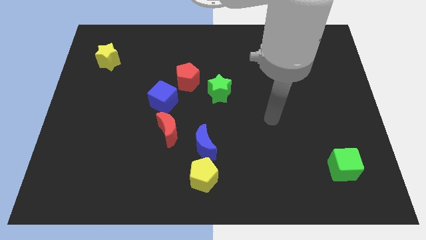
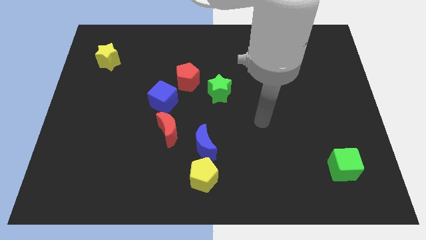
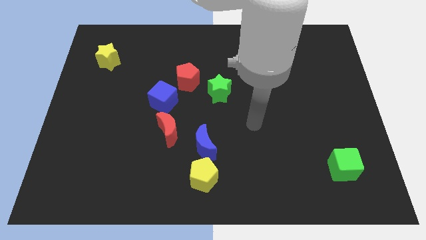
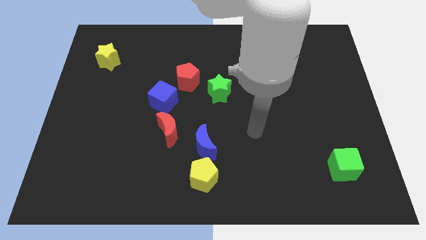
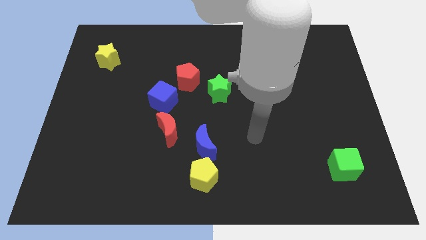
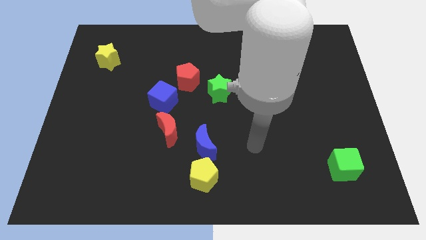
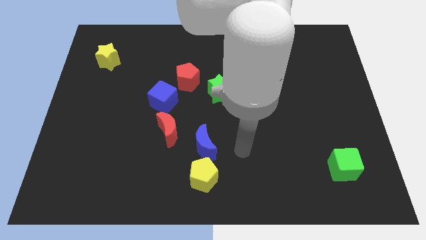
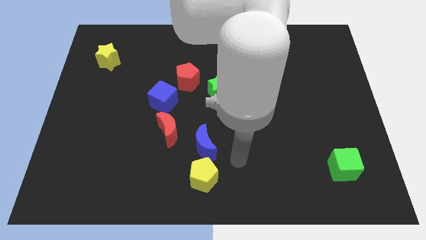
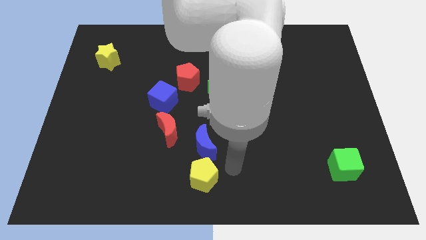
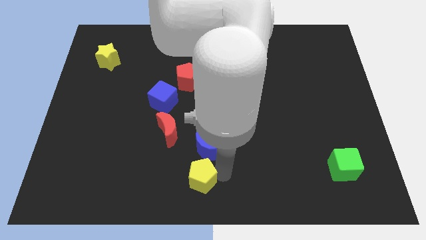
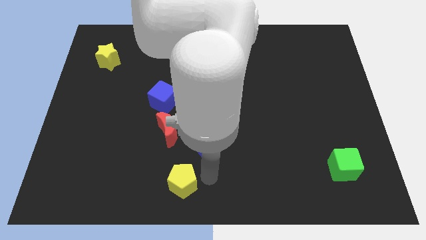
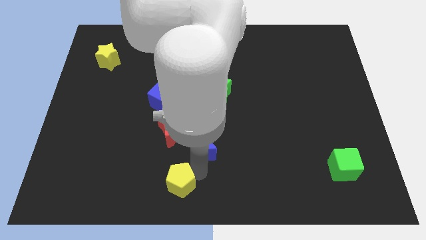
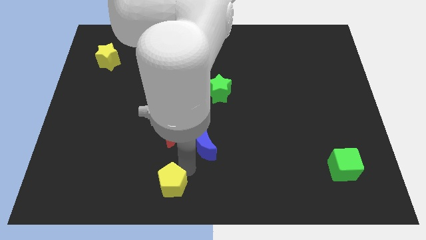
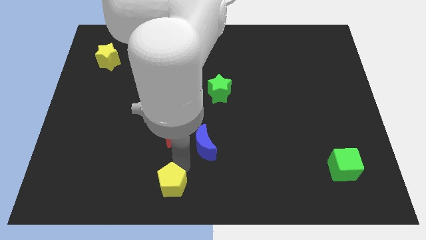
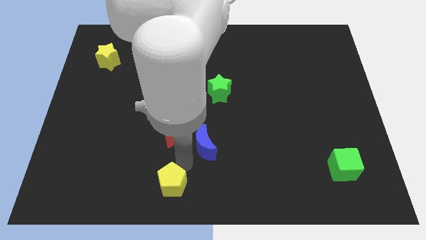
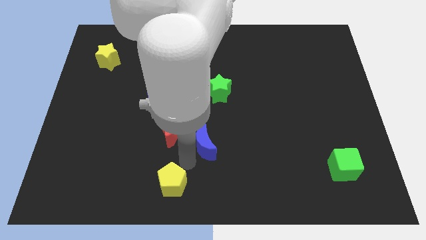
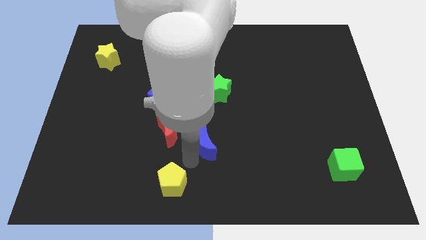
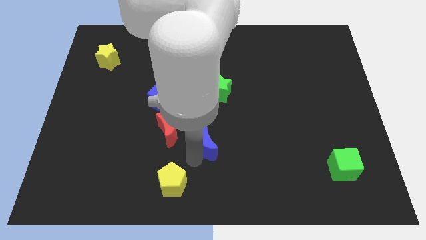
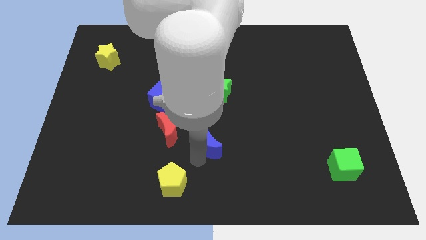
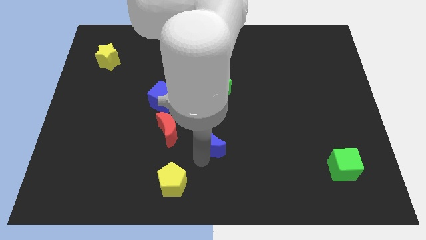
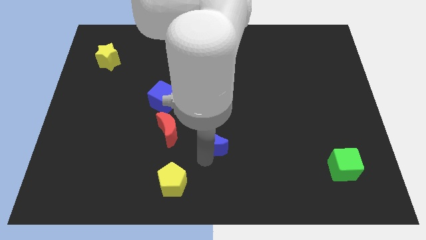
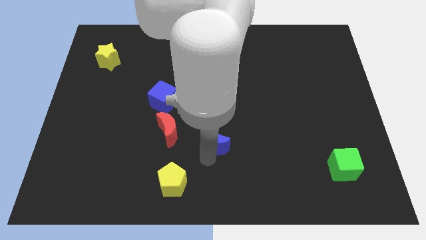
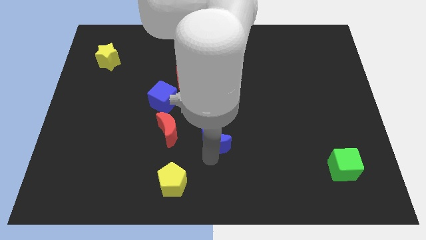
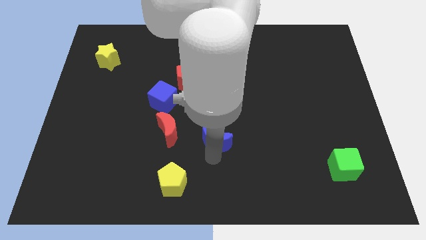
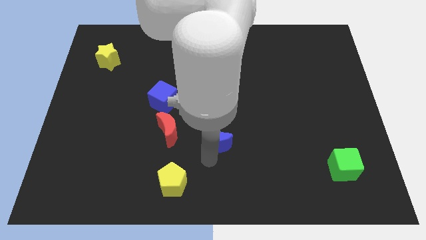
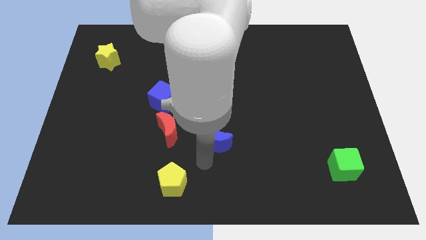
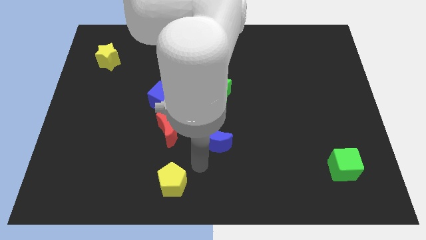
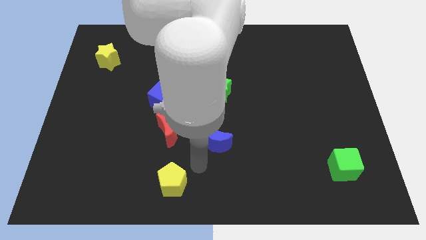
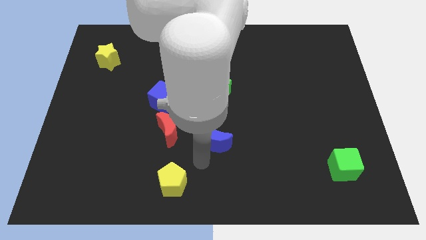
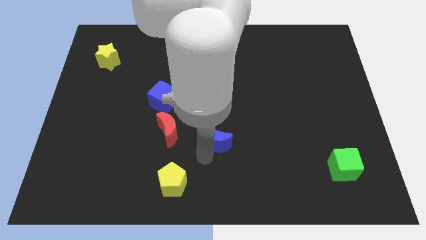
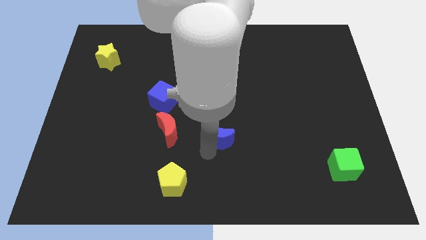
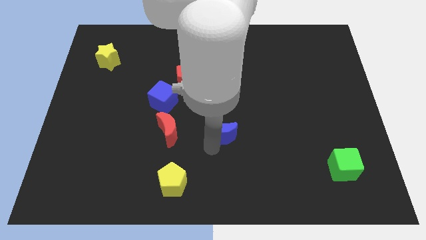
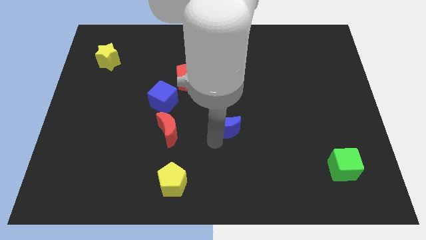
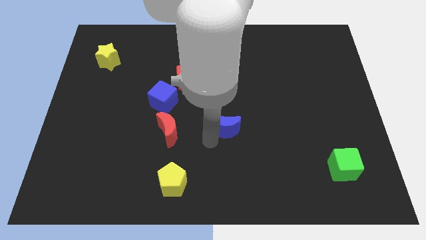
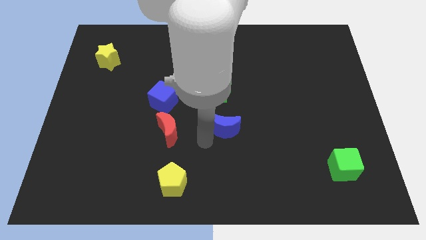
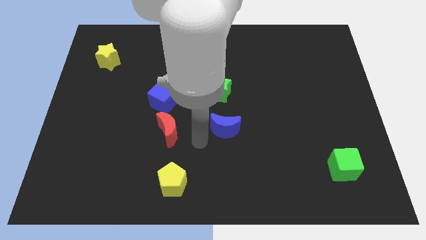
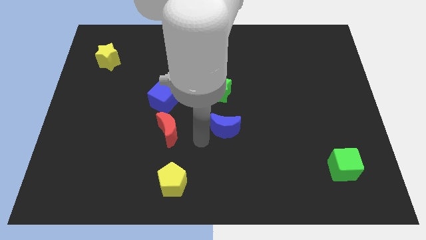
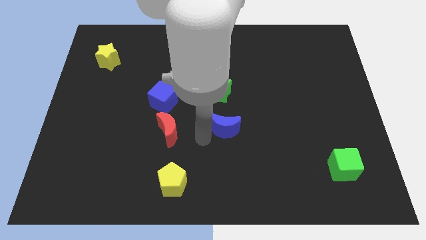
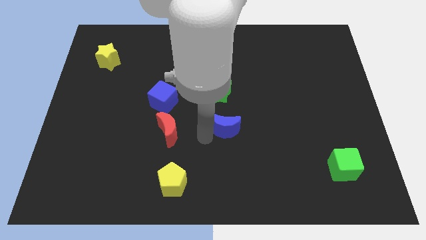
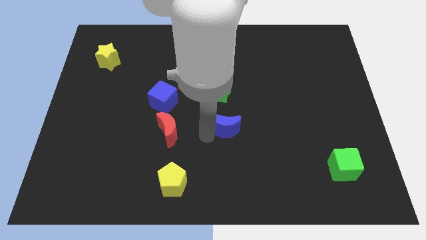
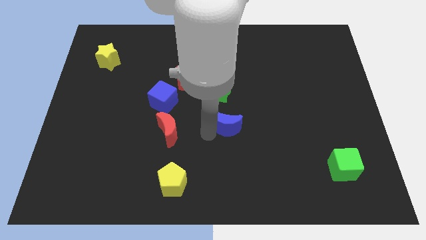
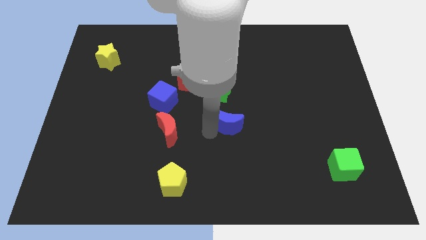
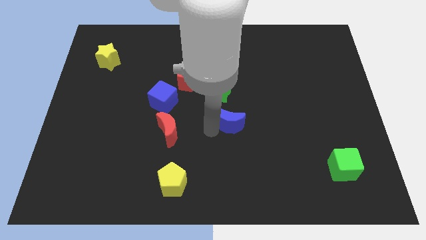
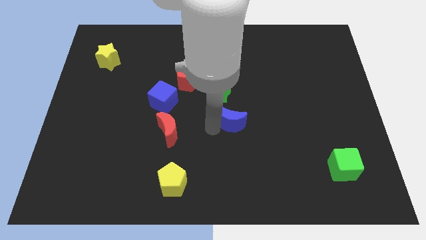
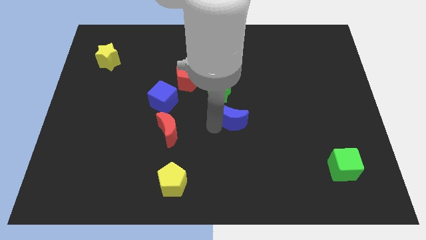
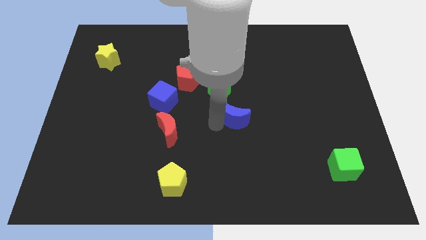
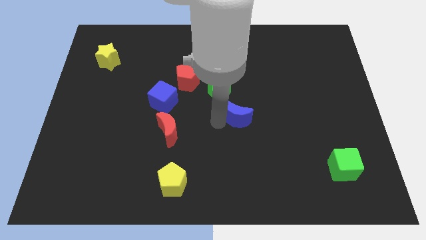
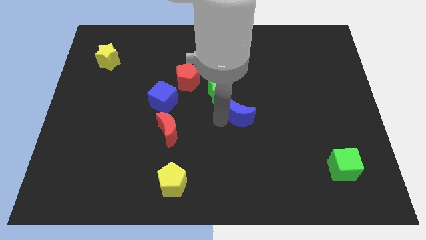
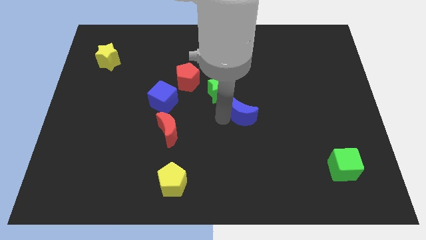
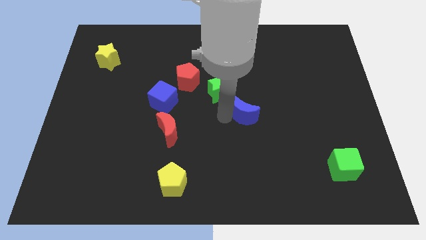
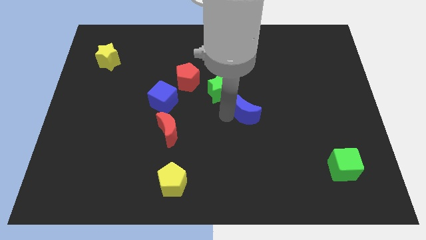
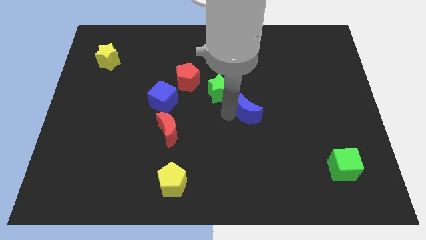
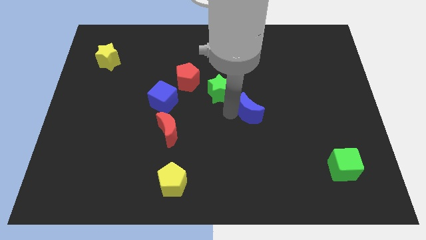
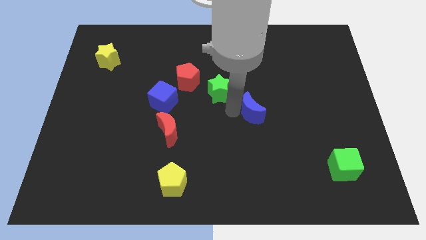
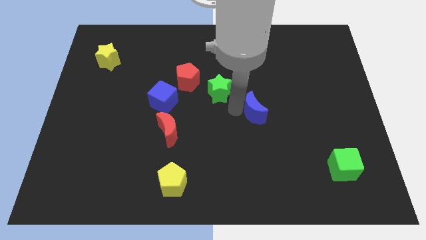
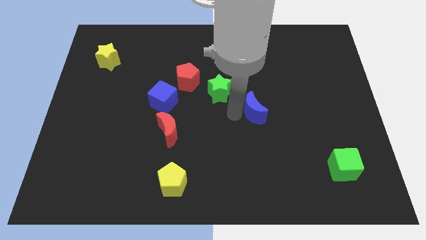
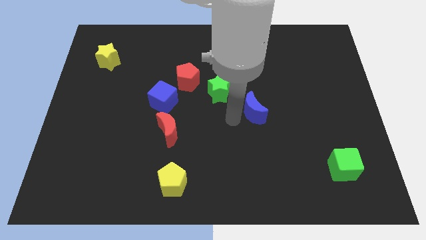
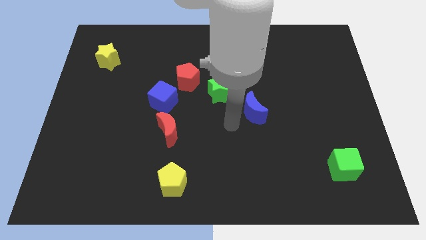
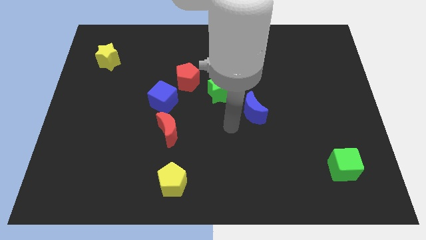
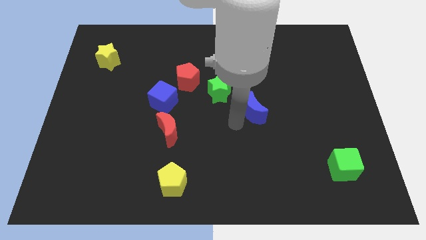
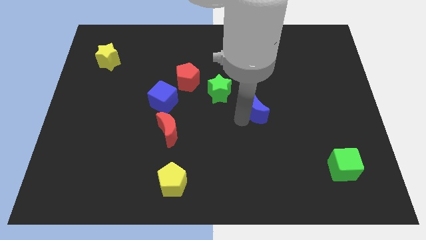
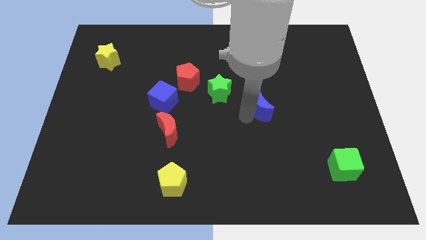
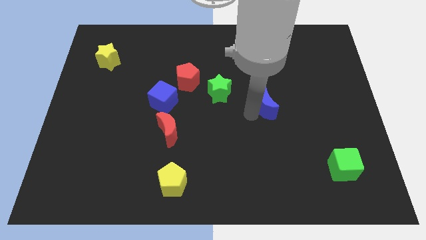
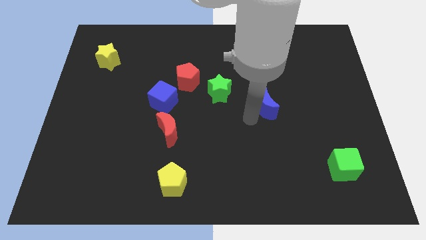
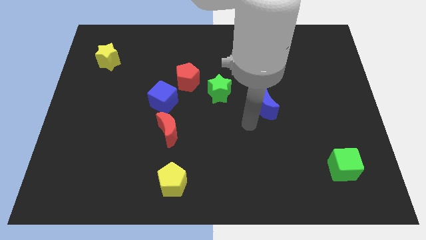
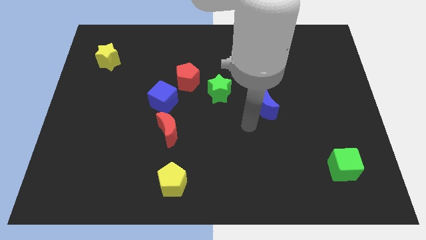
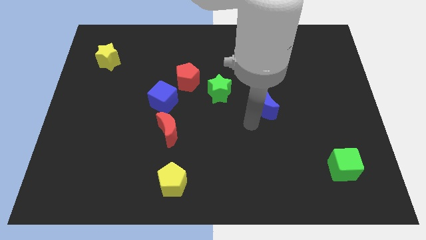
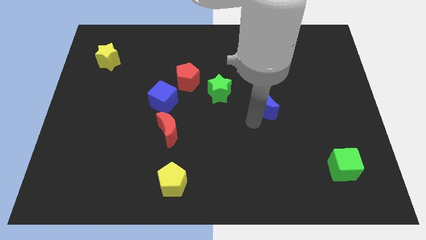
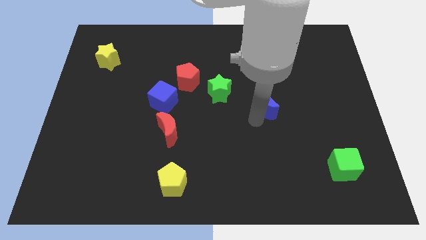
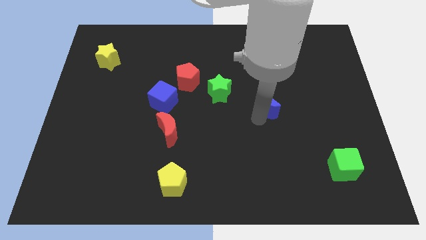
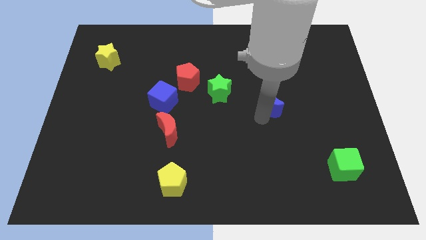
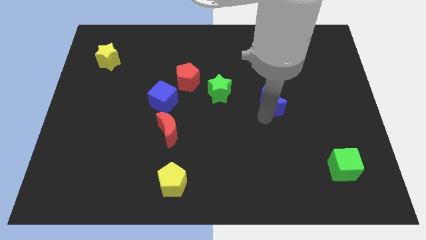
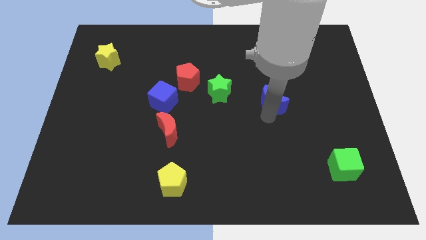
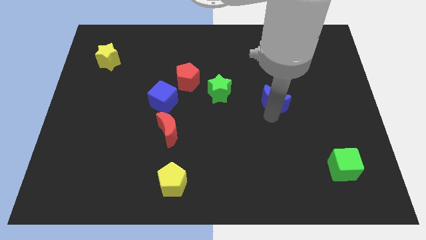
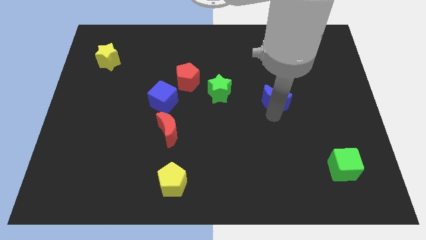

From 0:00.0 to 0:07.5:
push the blue moon up and right

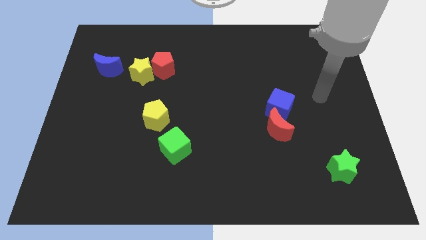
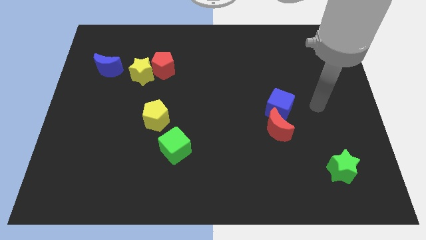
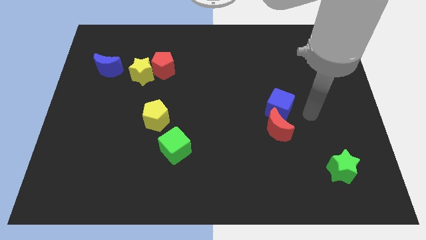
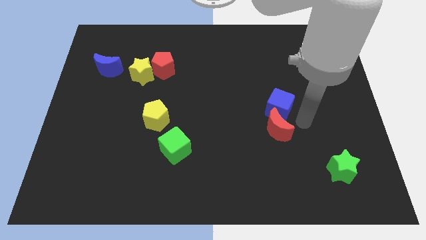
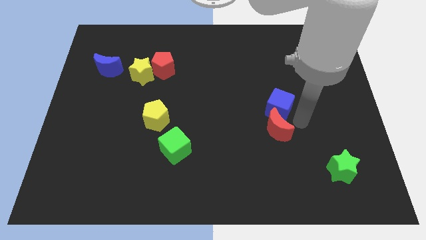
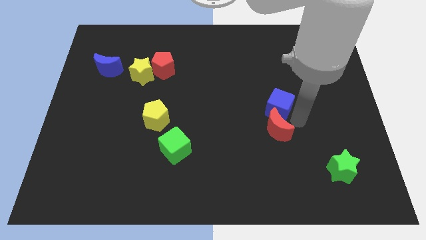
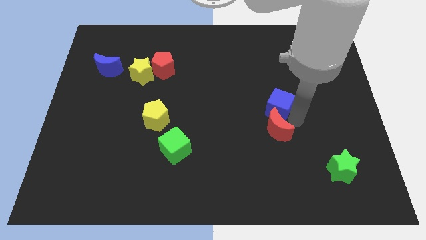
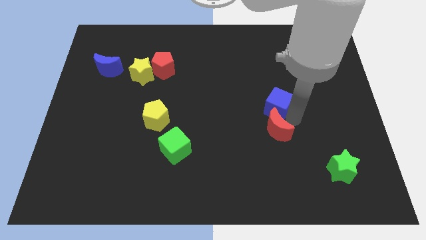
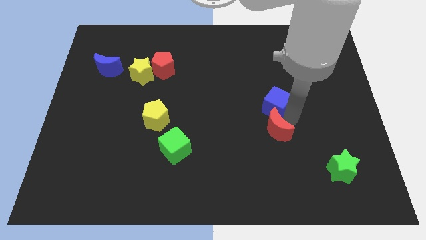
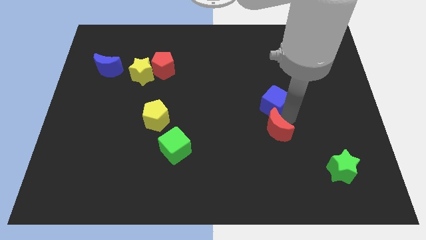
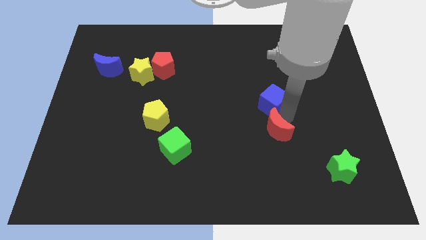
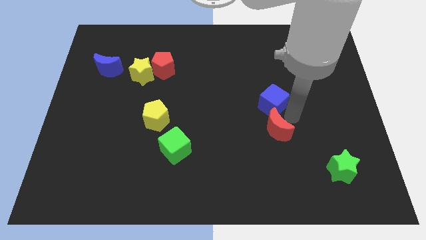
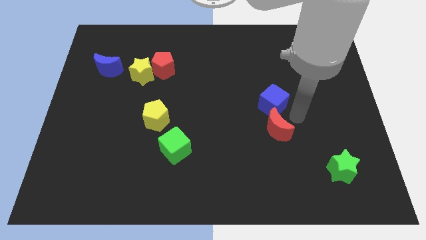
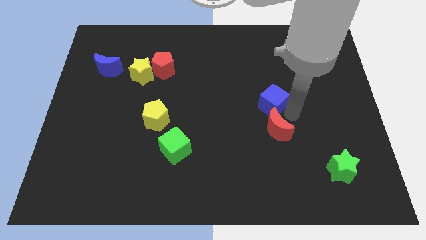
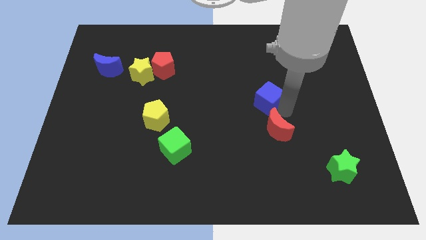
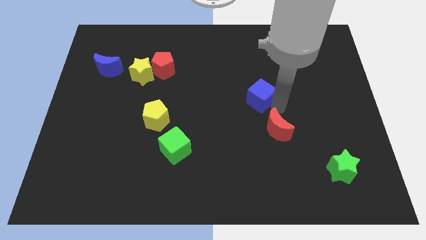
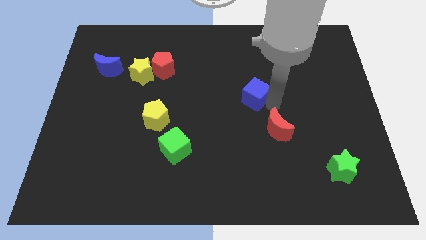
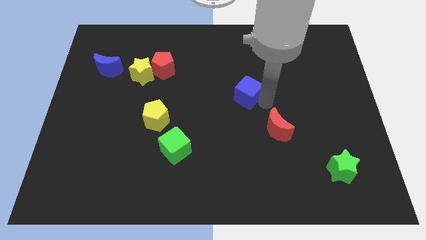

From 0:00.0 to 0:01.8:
slightly move the blue cube diagonally up and left
